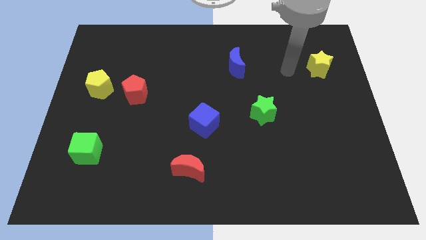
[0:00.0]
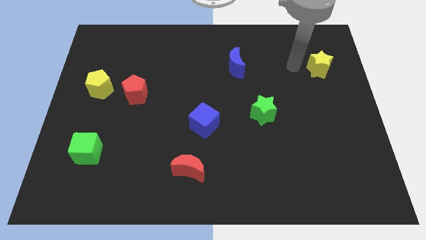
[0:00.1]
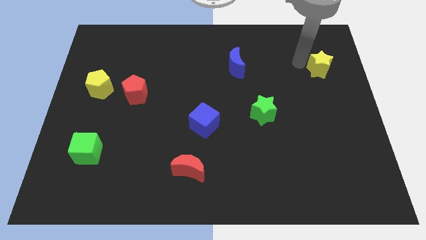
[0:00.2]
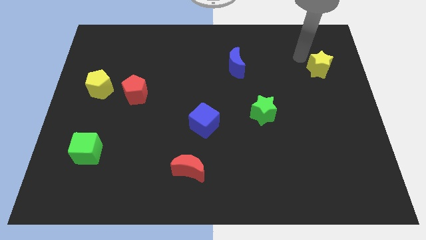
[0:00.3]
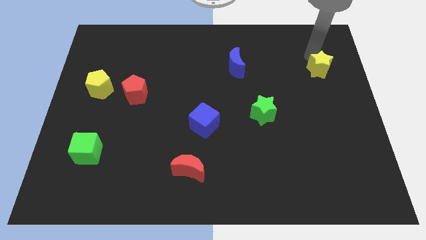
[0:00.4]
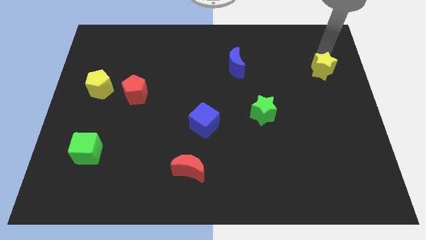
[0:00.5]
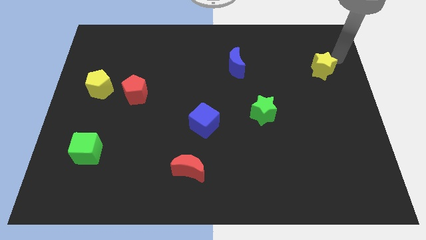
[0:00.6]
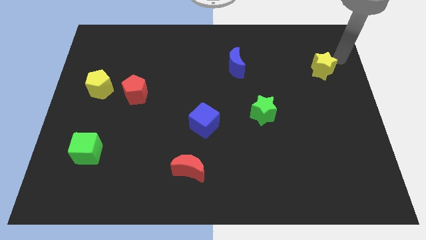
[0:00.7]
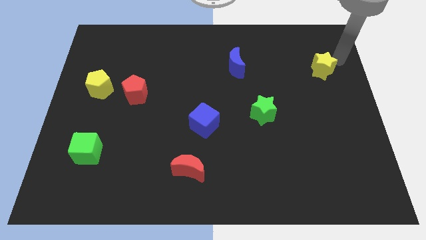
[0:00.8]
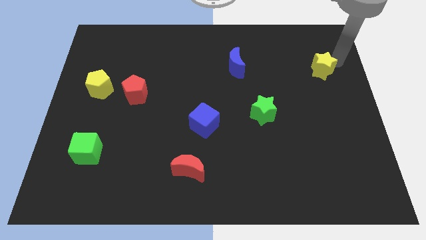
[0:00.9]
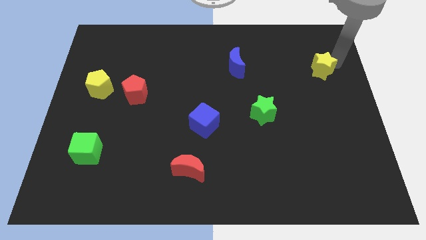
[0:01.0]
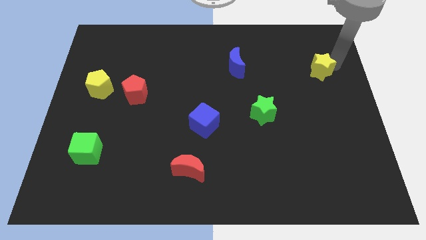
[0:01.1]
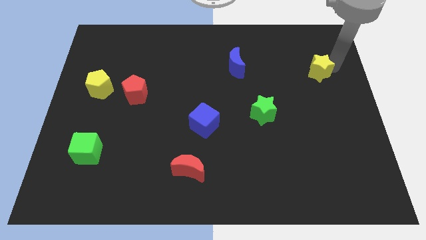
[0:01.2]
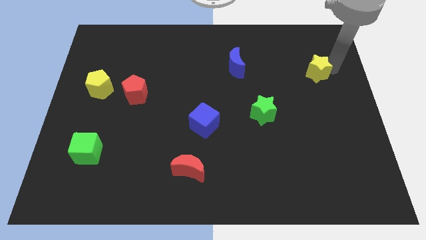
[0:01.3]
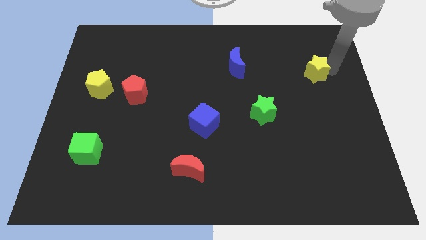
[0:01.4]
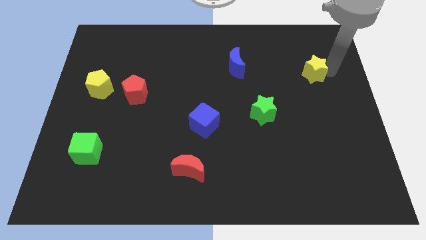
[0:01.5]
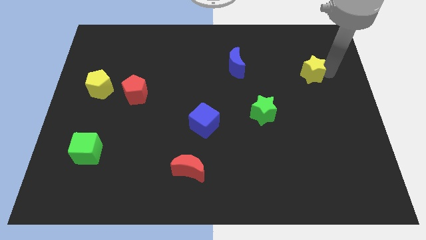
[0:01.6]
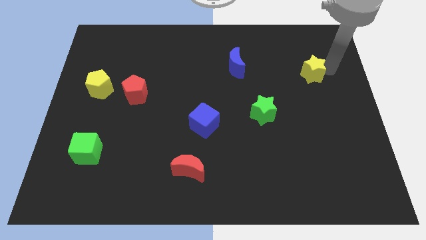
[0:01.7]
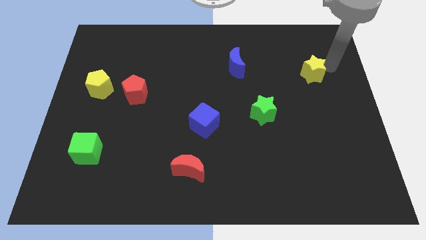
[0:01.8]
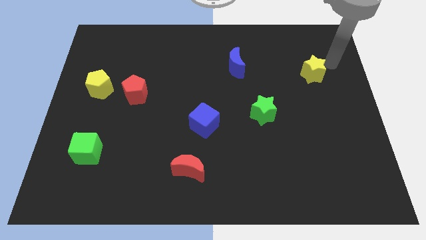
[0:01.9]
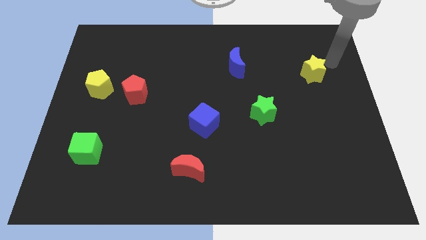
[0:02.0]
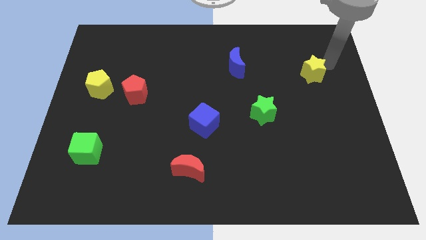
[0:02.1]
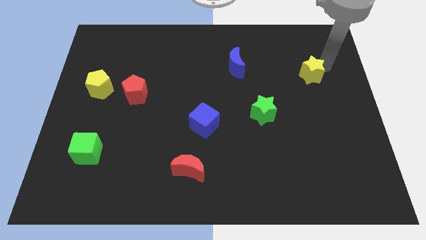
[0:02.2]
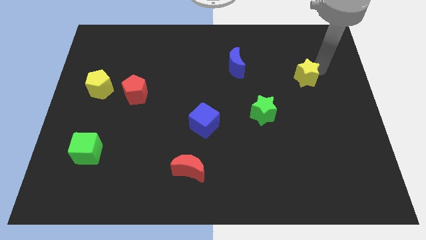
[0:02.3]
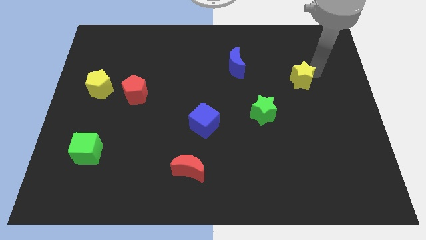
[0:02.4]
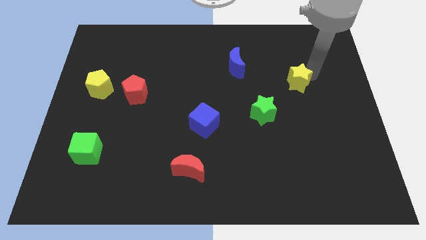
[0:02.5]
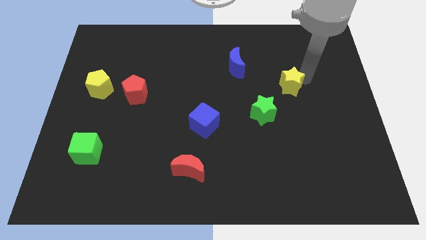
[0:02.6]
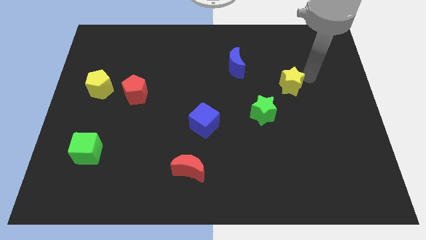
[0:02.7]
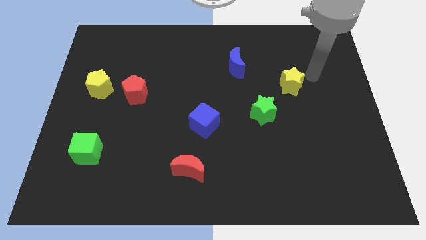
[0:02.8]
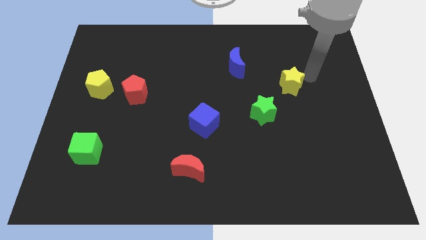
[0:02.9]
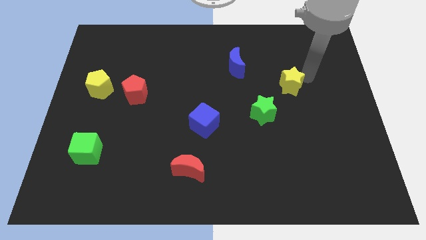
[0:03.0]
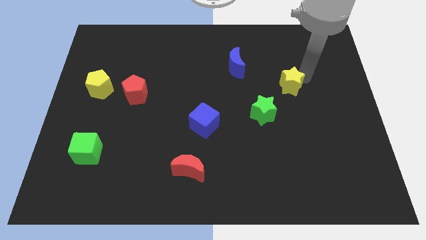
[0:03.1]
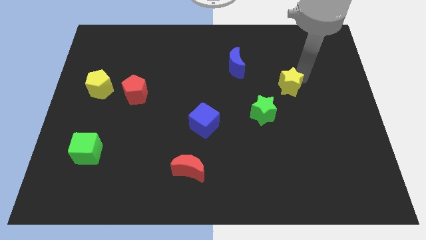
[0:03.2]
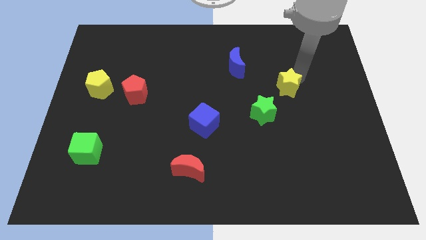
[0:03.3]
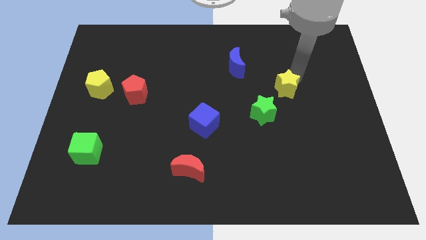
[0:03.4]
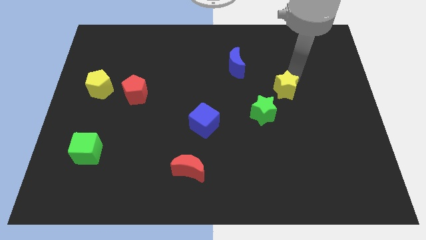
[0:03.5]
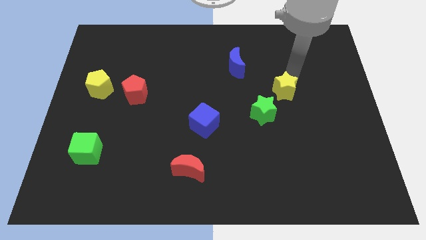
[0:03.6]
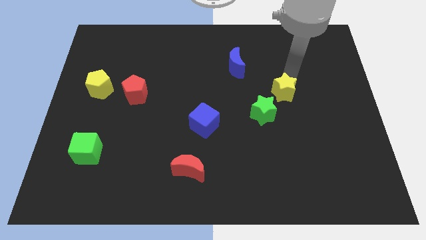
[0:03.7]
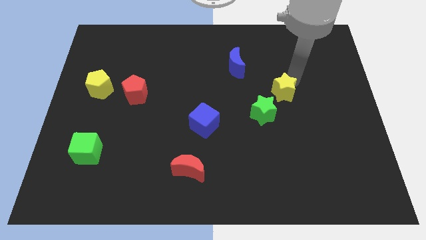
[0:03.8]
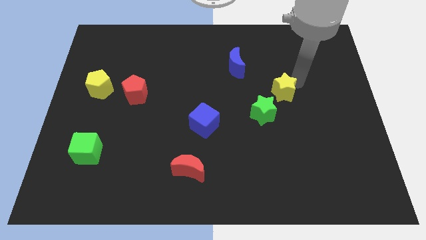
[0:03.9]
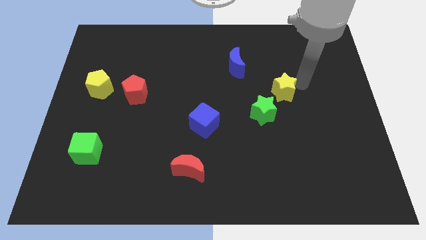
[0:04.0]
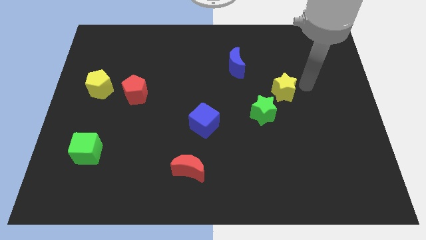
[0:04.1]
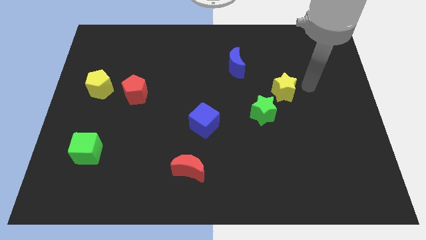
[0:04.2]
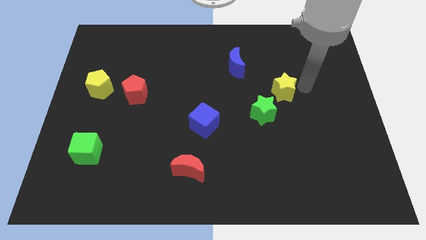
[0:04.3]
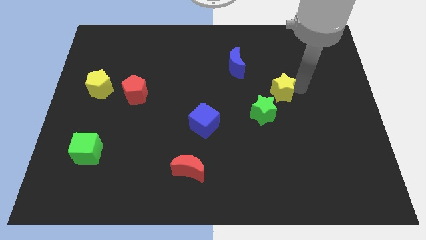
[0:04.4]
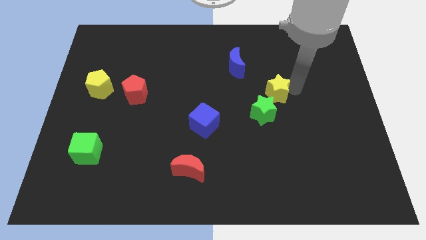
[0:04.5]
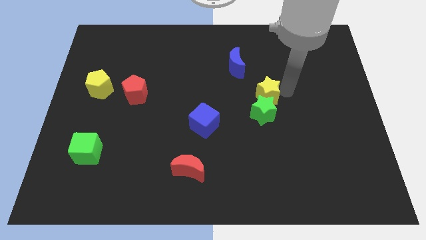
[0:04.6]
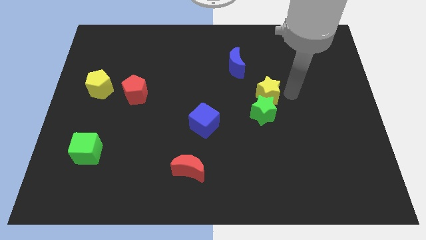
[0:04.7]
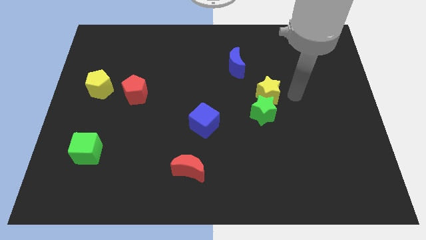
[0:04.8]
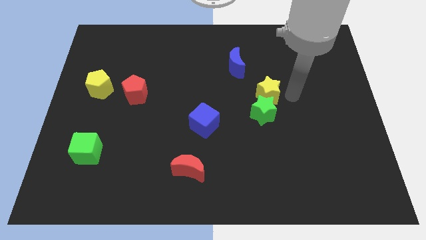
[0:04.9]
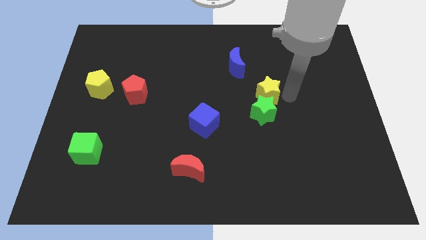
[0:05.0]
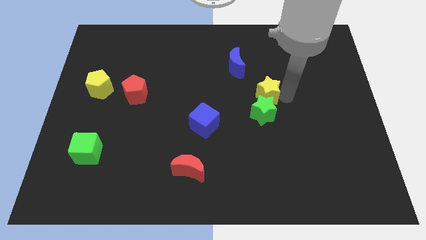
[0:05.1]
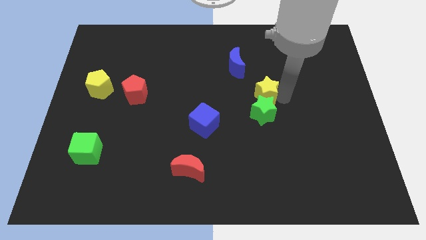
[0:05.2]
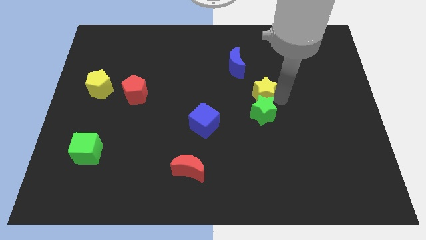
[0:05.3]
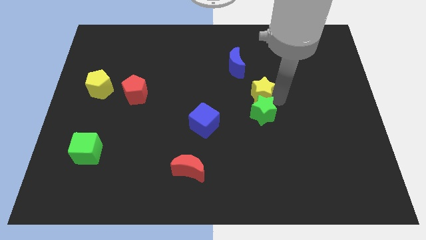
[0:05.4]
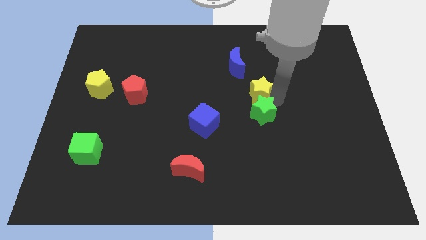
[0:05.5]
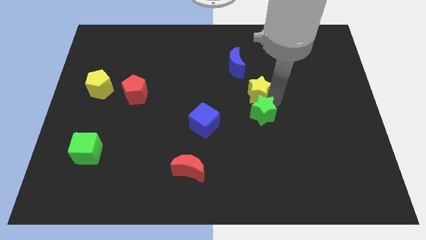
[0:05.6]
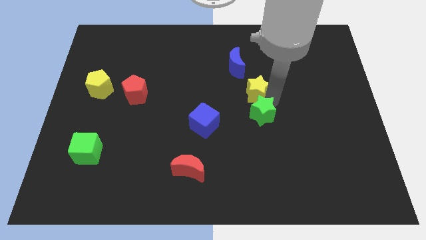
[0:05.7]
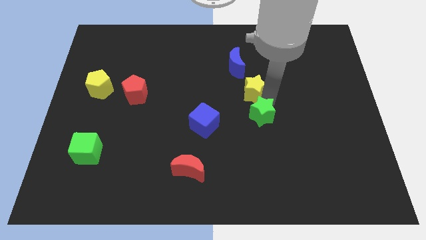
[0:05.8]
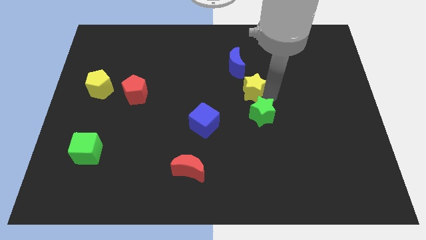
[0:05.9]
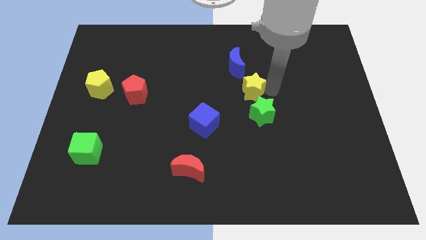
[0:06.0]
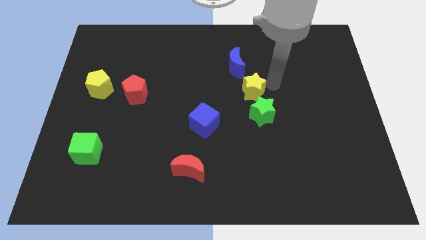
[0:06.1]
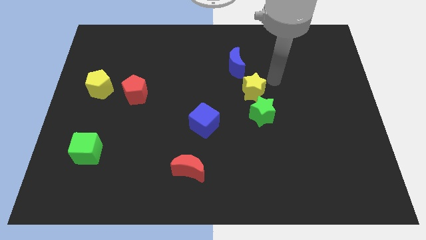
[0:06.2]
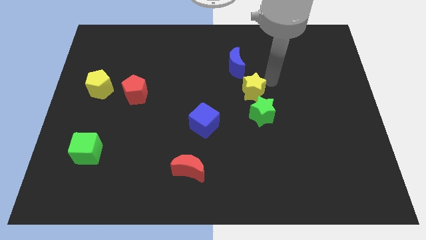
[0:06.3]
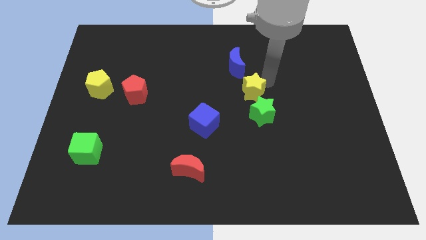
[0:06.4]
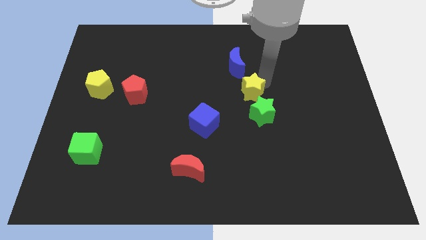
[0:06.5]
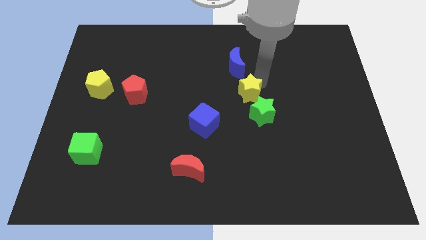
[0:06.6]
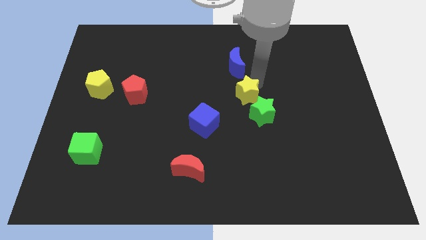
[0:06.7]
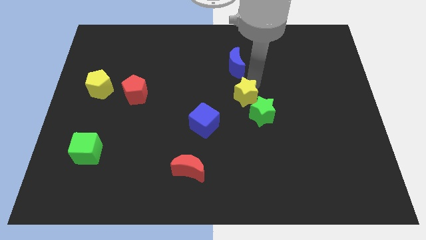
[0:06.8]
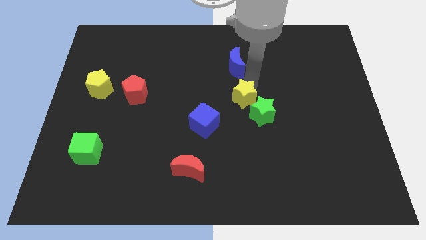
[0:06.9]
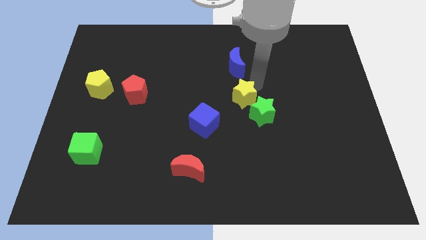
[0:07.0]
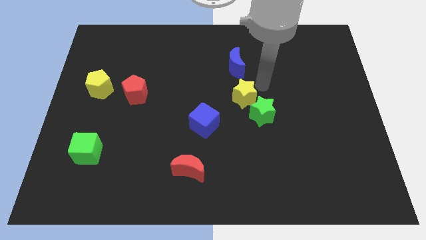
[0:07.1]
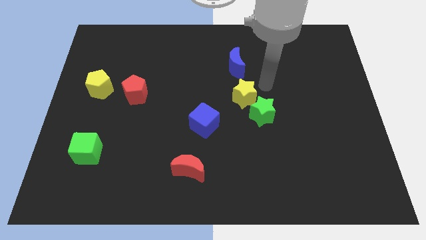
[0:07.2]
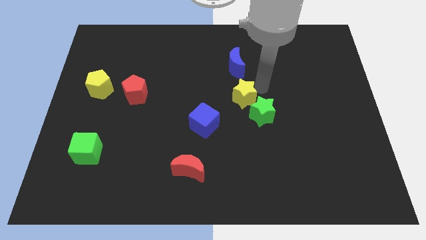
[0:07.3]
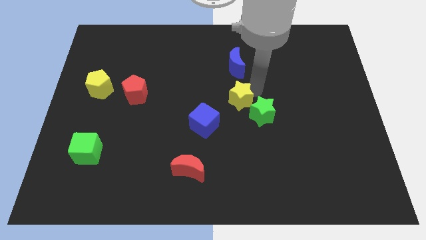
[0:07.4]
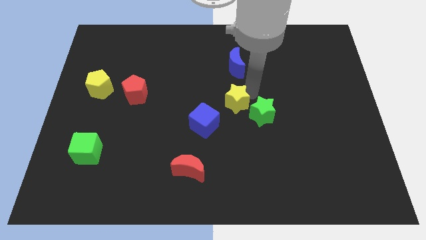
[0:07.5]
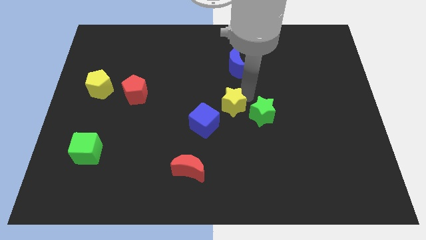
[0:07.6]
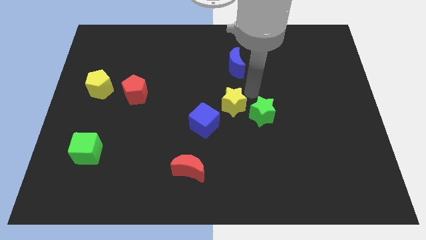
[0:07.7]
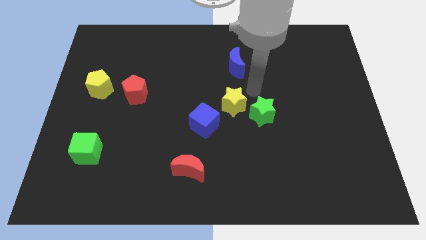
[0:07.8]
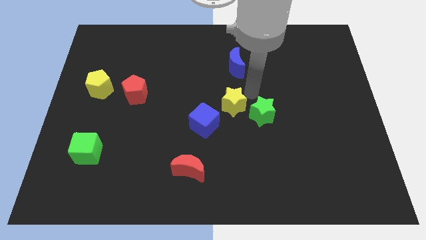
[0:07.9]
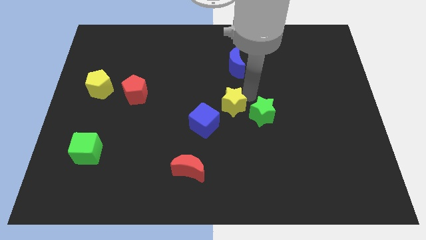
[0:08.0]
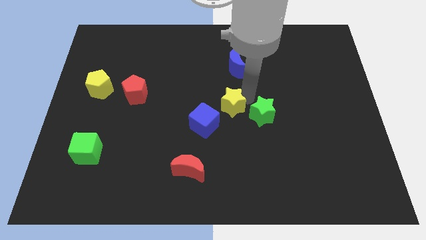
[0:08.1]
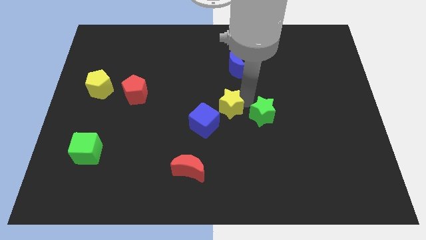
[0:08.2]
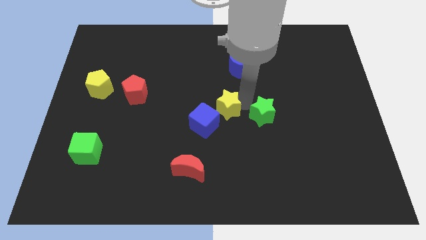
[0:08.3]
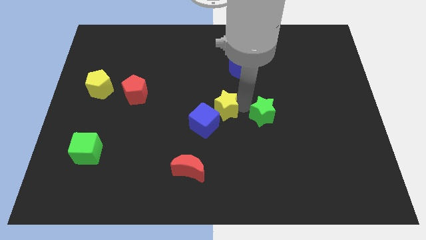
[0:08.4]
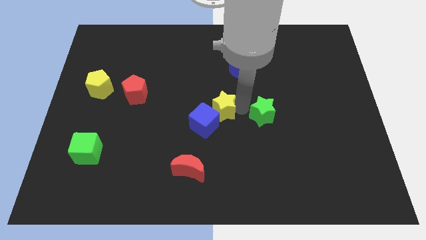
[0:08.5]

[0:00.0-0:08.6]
put the yellow star next to the blue cube
